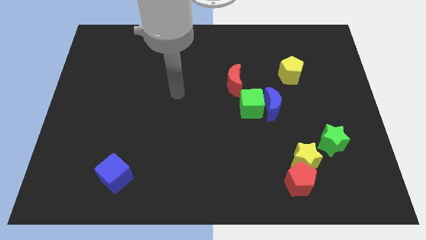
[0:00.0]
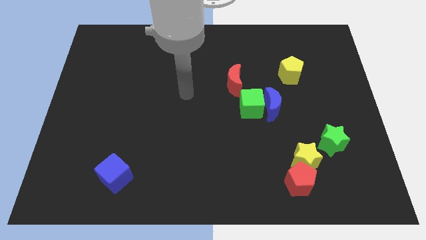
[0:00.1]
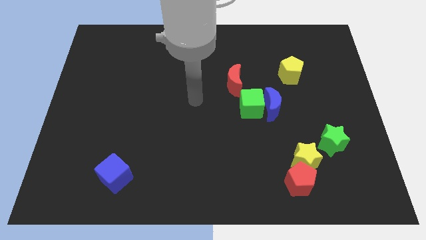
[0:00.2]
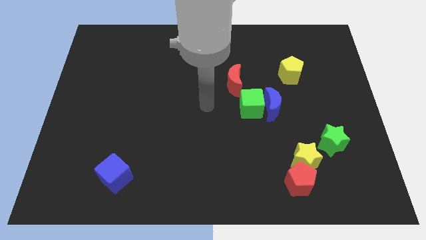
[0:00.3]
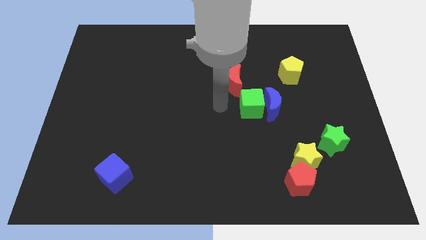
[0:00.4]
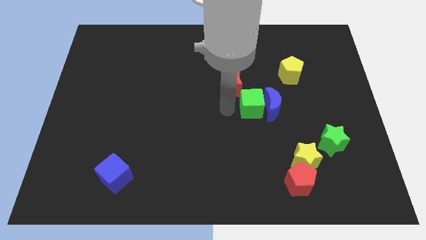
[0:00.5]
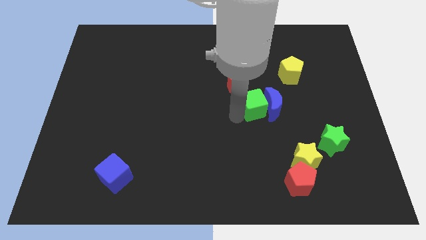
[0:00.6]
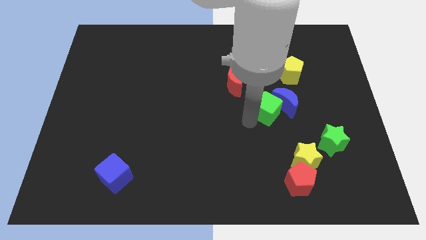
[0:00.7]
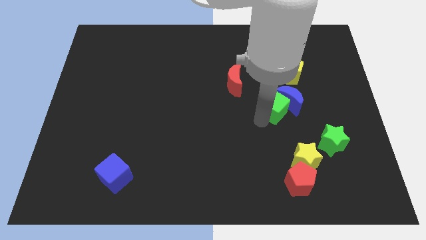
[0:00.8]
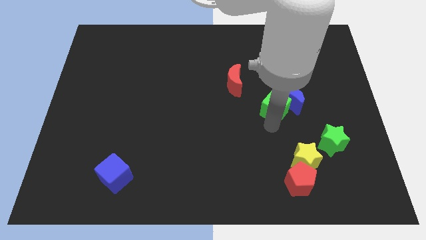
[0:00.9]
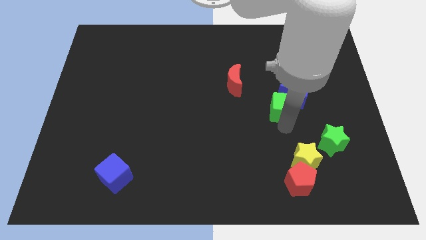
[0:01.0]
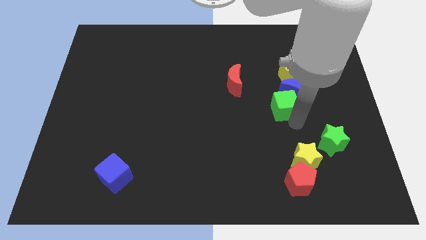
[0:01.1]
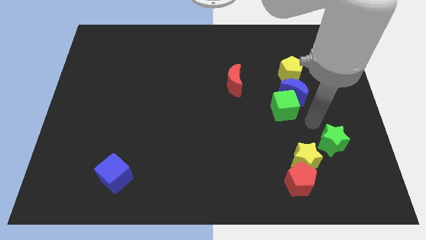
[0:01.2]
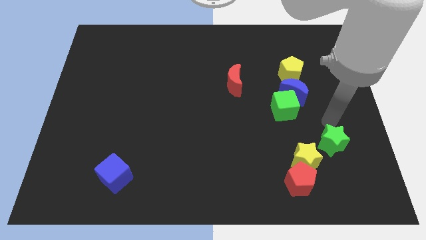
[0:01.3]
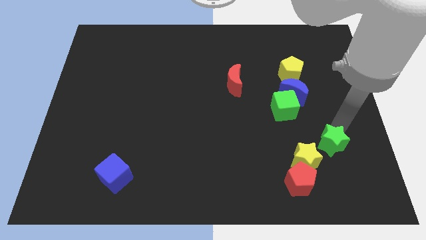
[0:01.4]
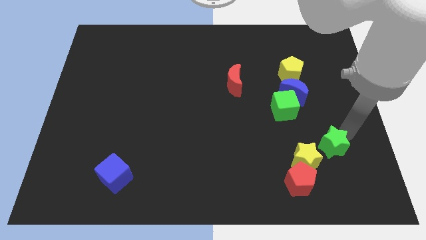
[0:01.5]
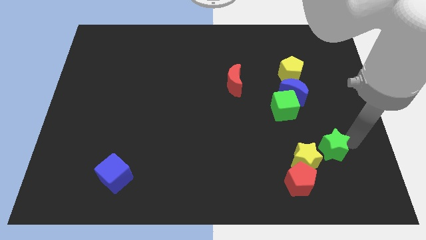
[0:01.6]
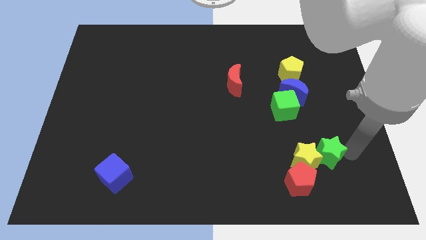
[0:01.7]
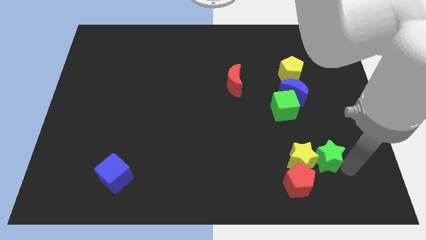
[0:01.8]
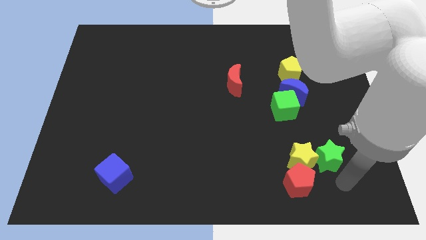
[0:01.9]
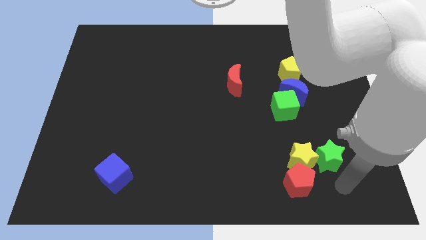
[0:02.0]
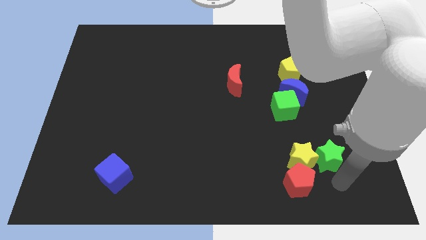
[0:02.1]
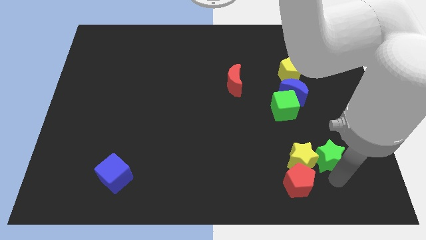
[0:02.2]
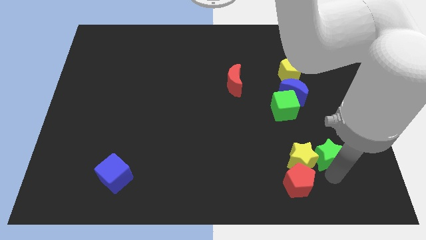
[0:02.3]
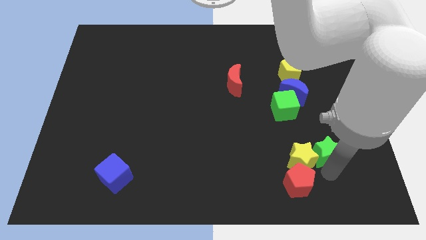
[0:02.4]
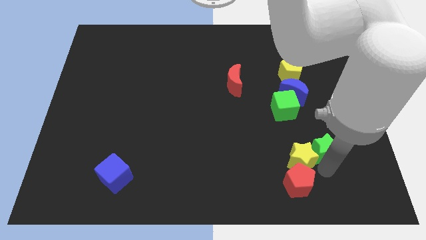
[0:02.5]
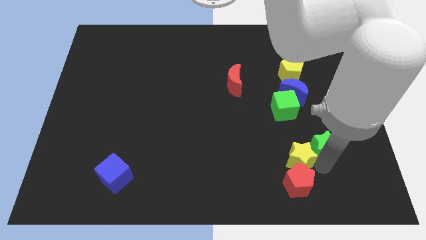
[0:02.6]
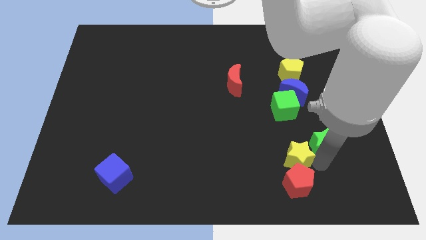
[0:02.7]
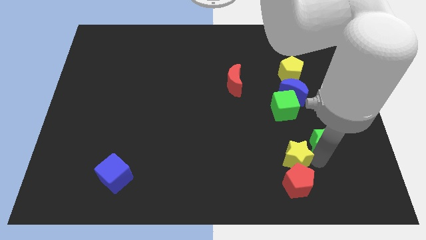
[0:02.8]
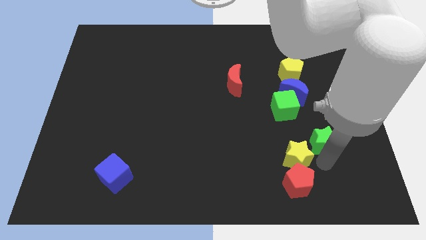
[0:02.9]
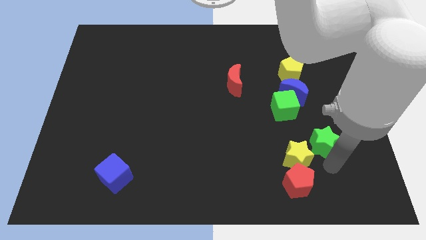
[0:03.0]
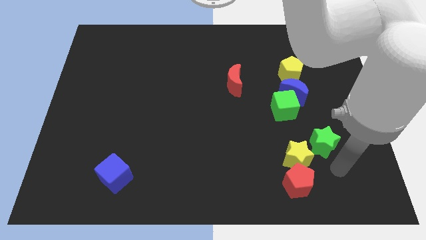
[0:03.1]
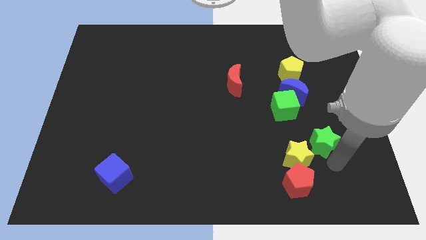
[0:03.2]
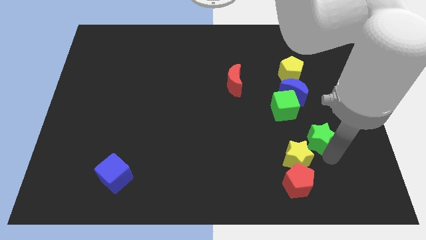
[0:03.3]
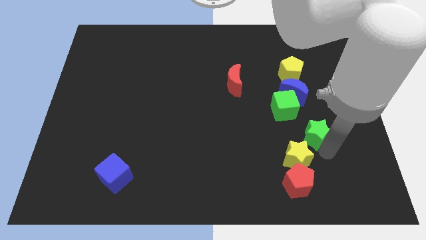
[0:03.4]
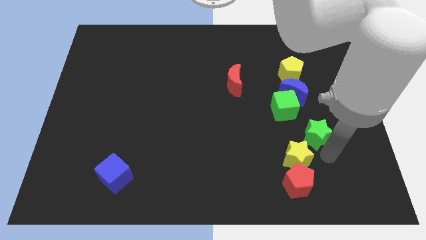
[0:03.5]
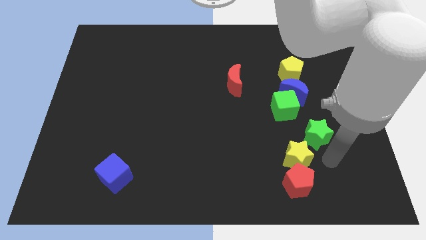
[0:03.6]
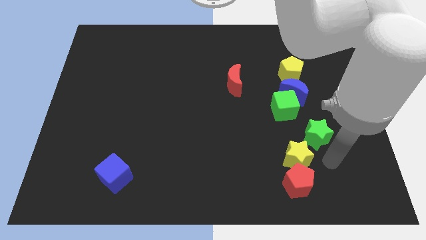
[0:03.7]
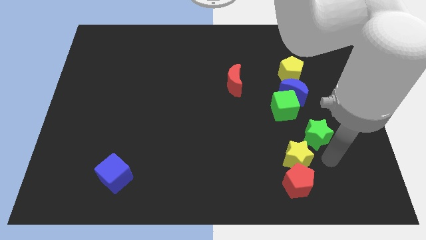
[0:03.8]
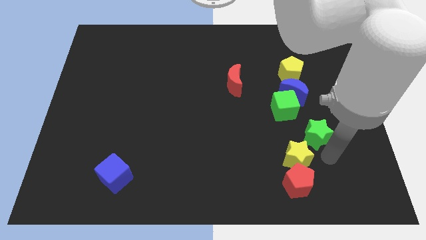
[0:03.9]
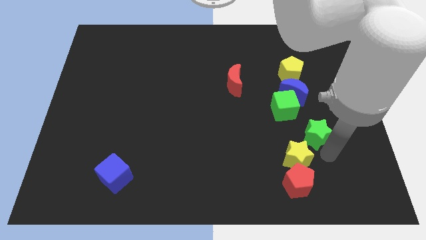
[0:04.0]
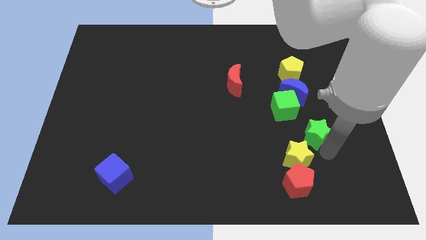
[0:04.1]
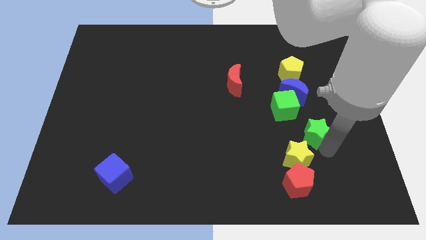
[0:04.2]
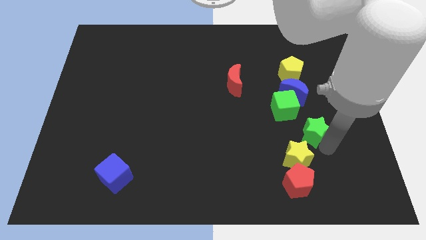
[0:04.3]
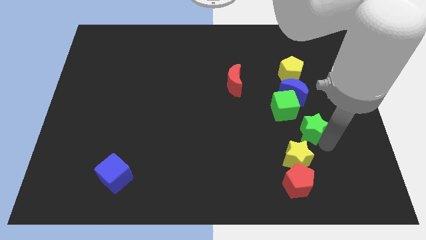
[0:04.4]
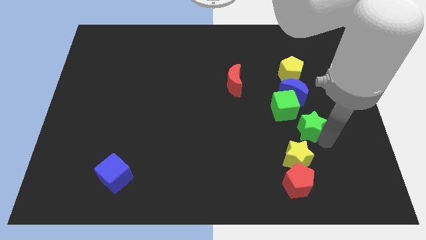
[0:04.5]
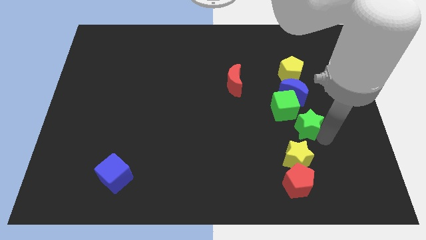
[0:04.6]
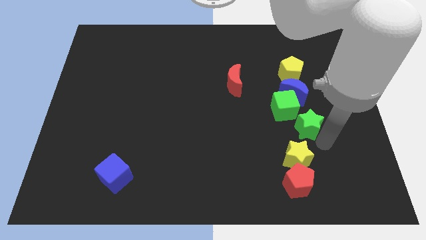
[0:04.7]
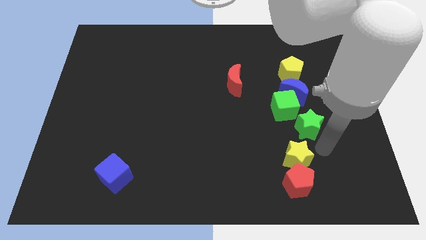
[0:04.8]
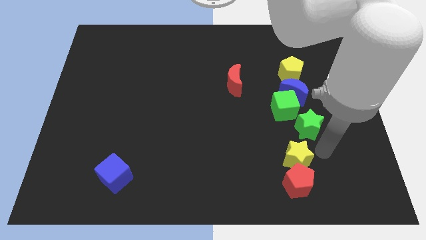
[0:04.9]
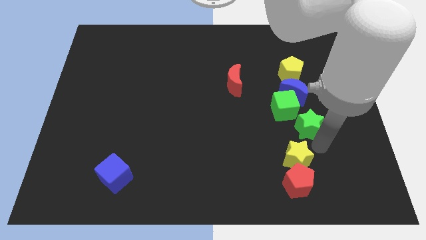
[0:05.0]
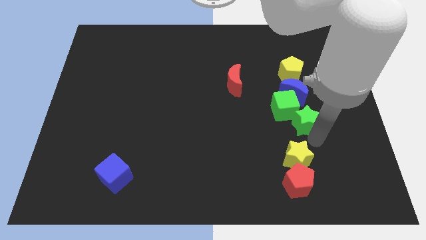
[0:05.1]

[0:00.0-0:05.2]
slightly slide the green star diagonally upwards and left

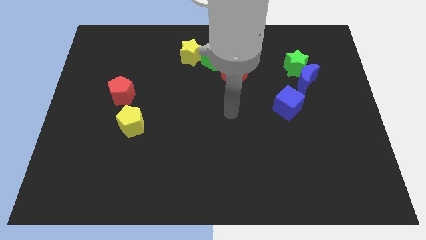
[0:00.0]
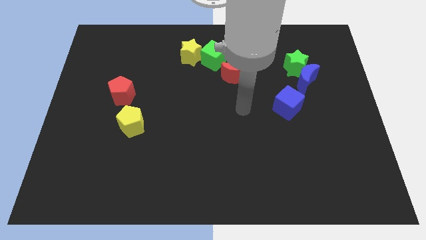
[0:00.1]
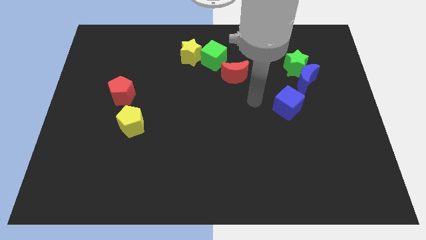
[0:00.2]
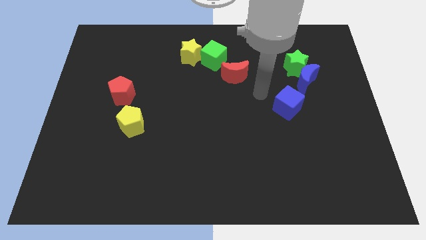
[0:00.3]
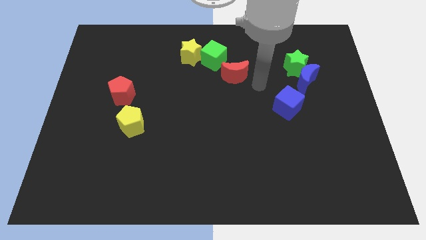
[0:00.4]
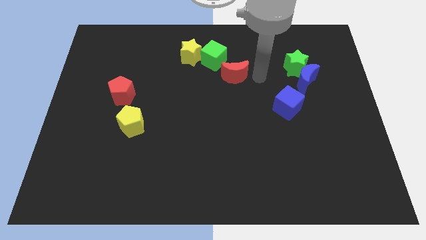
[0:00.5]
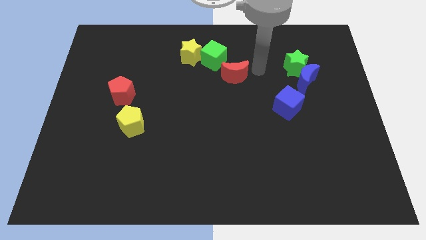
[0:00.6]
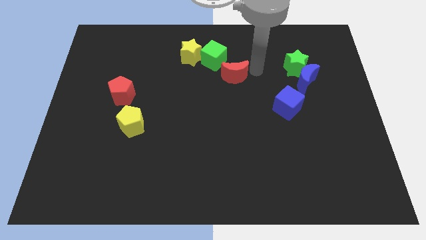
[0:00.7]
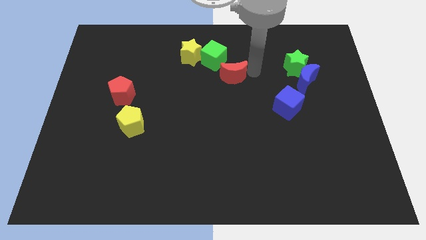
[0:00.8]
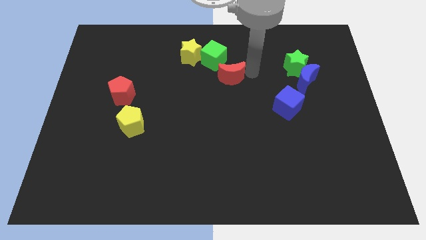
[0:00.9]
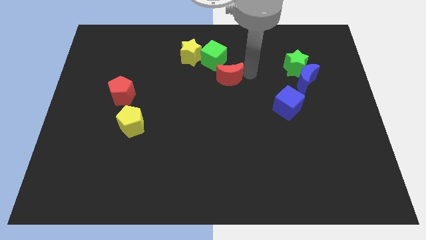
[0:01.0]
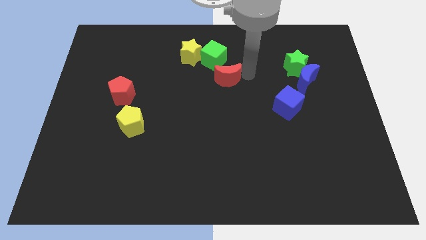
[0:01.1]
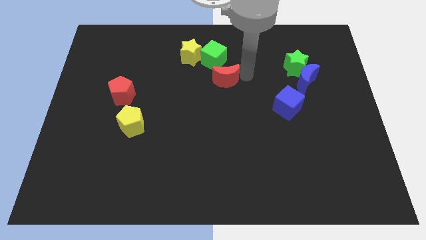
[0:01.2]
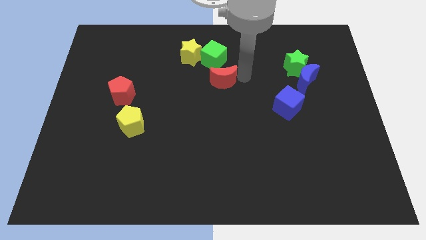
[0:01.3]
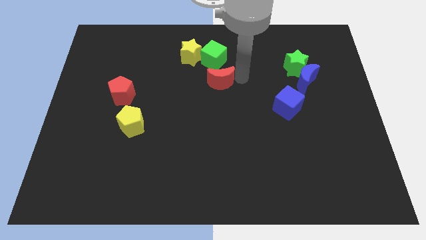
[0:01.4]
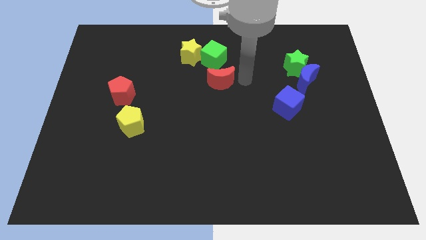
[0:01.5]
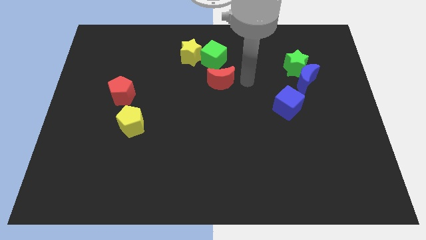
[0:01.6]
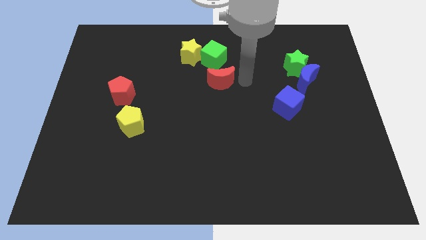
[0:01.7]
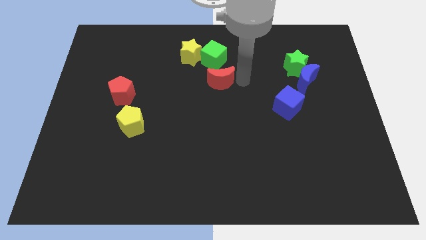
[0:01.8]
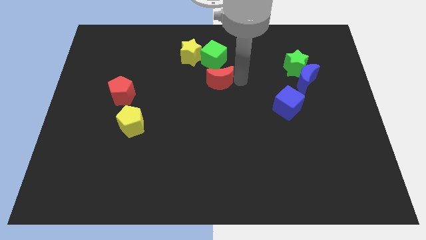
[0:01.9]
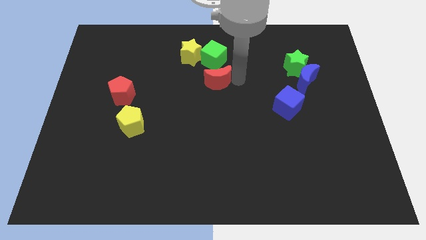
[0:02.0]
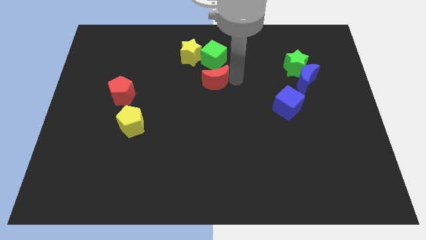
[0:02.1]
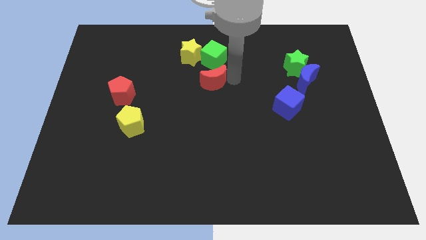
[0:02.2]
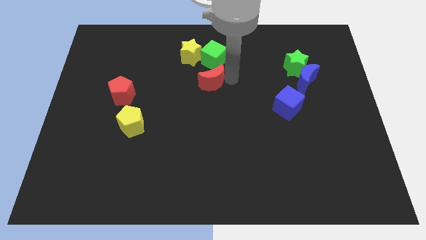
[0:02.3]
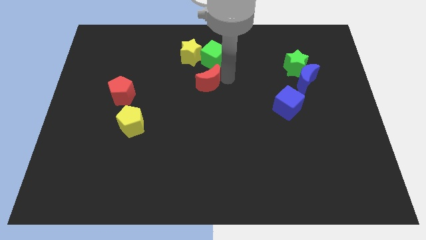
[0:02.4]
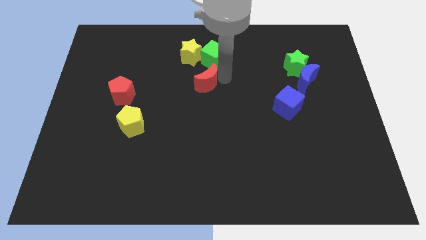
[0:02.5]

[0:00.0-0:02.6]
push the red moon left a bit

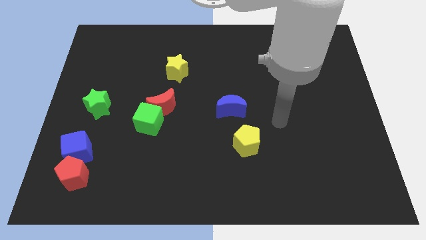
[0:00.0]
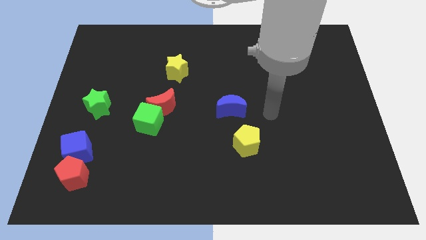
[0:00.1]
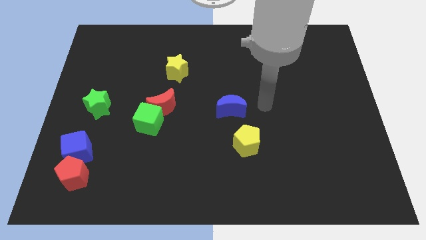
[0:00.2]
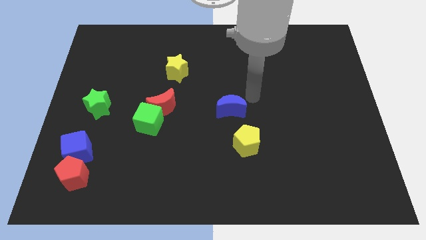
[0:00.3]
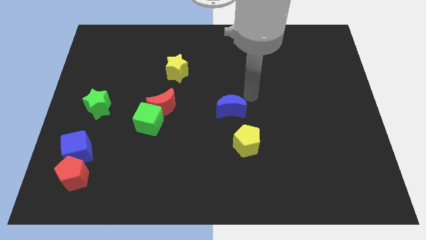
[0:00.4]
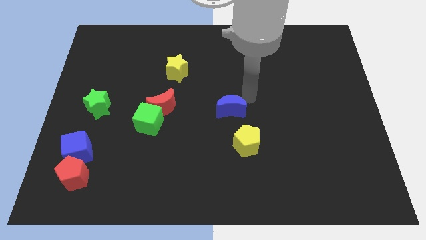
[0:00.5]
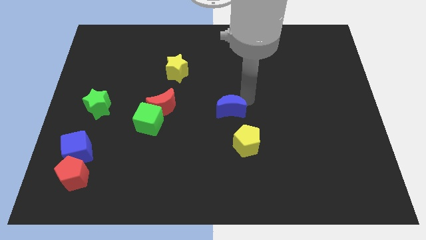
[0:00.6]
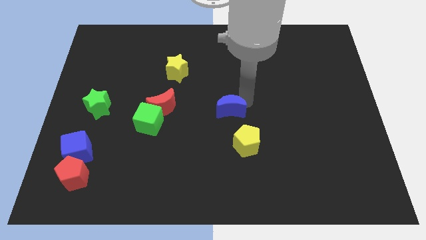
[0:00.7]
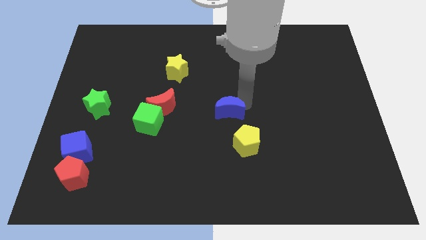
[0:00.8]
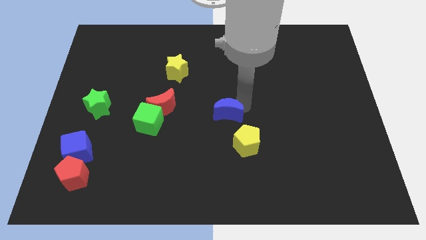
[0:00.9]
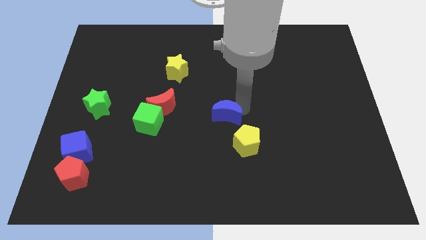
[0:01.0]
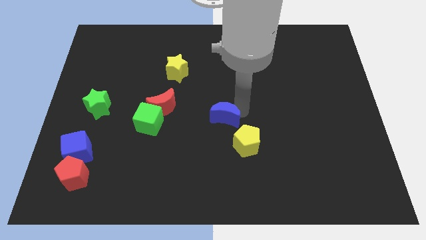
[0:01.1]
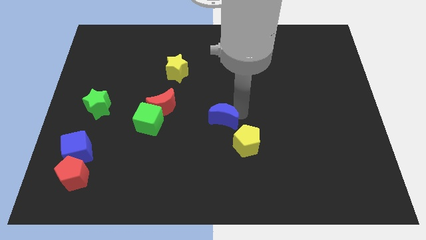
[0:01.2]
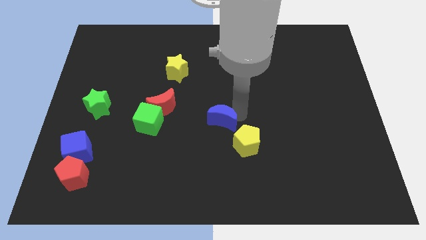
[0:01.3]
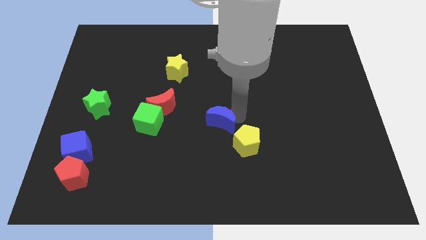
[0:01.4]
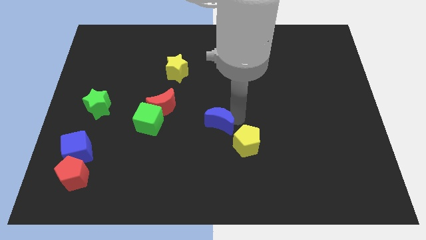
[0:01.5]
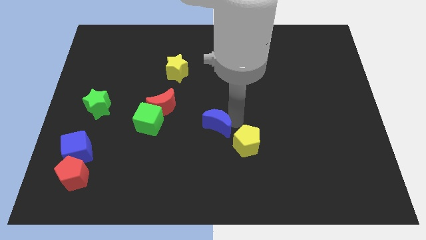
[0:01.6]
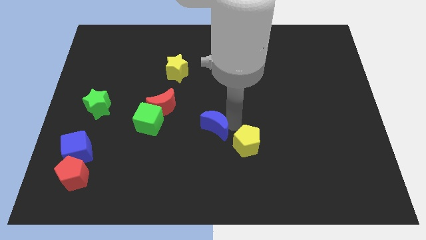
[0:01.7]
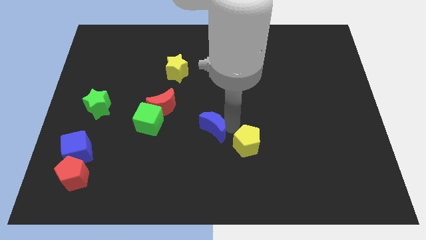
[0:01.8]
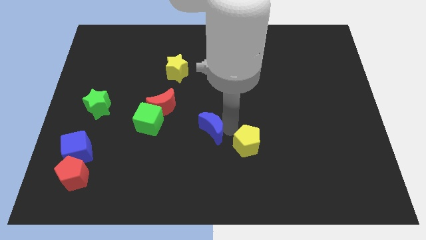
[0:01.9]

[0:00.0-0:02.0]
slightly push the blue moon diagonally downwards and left
